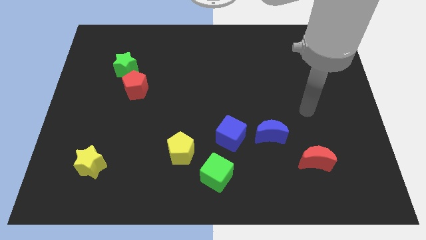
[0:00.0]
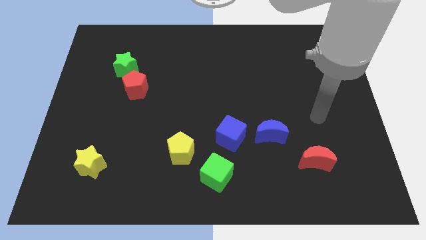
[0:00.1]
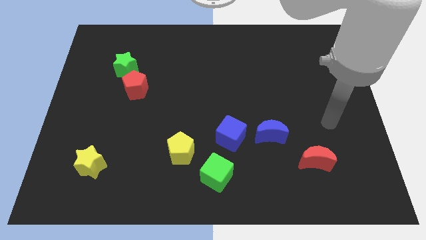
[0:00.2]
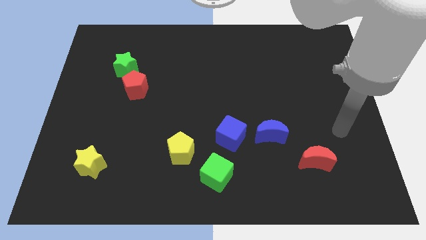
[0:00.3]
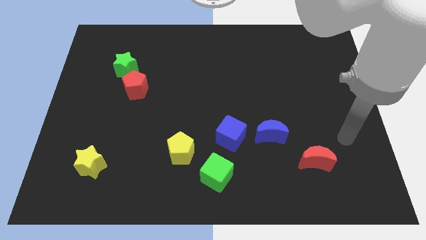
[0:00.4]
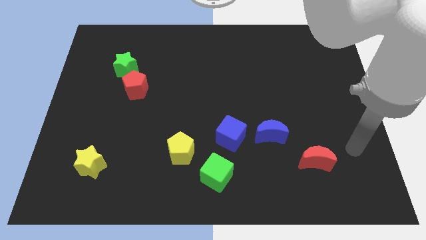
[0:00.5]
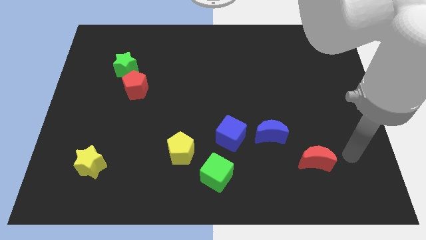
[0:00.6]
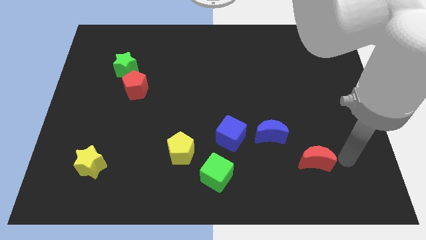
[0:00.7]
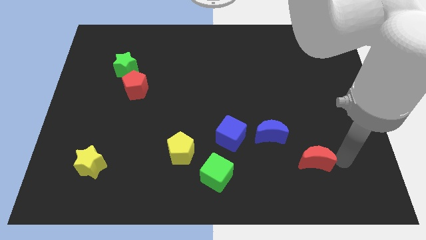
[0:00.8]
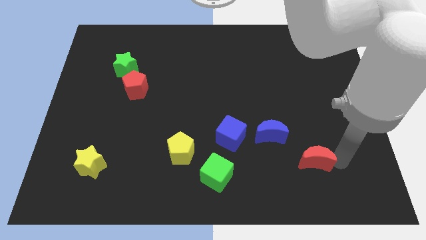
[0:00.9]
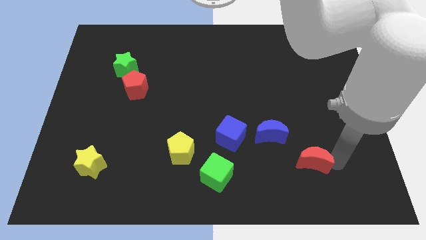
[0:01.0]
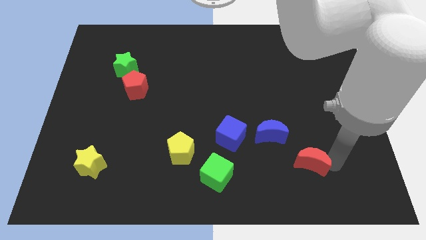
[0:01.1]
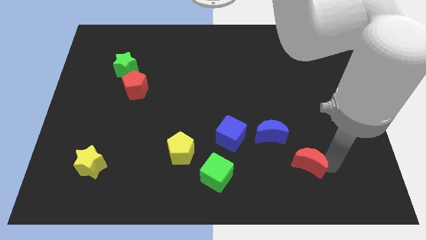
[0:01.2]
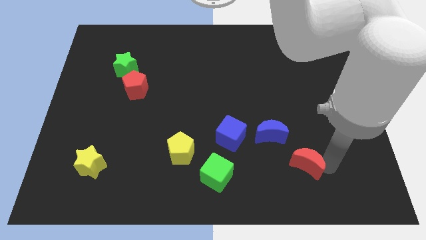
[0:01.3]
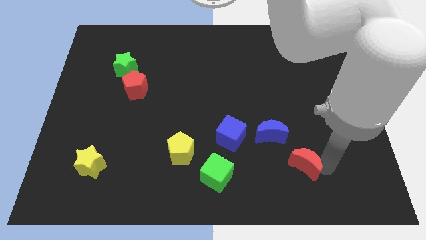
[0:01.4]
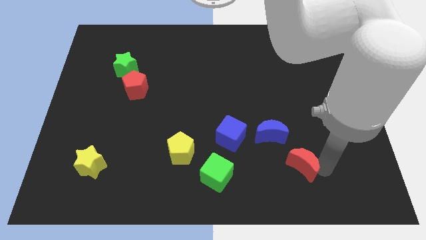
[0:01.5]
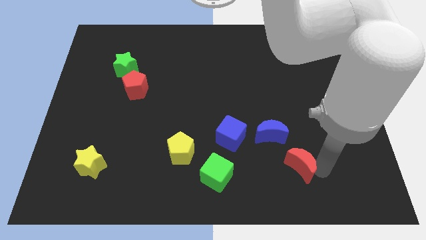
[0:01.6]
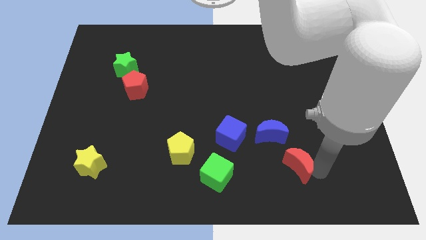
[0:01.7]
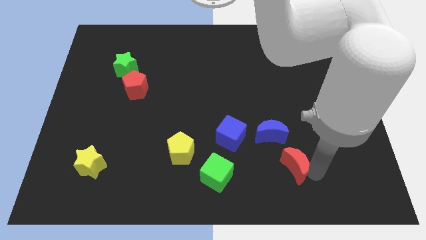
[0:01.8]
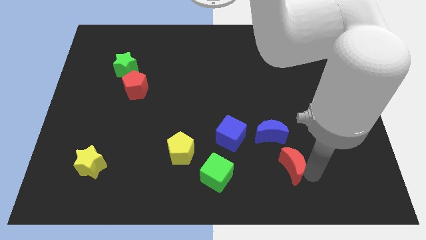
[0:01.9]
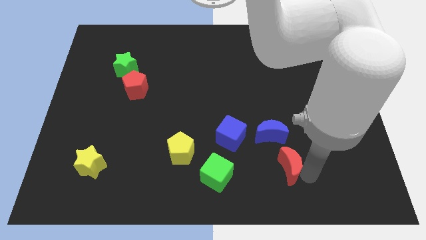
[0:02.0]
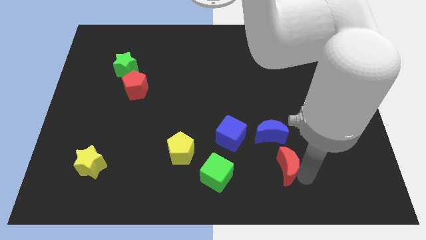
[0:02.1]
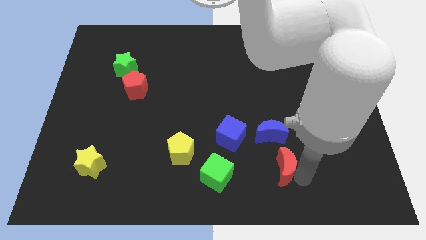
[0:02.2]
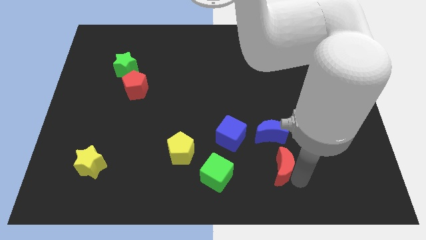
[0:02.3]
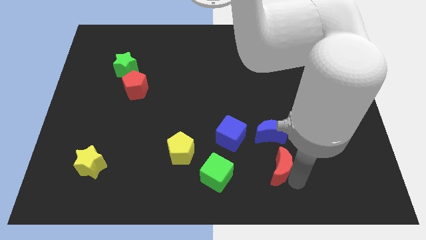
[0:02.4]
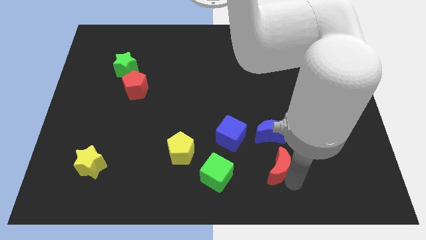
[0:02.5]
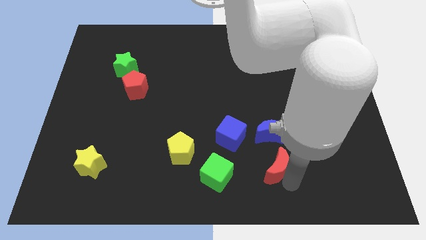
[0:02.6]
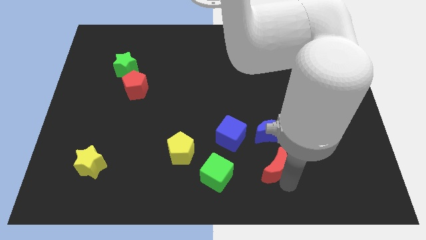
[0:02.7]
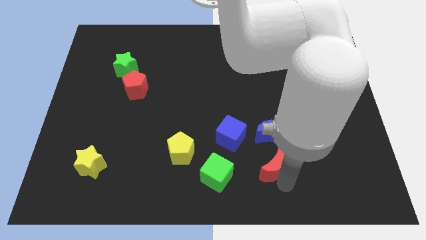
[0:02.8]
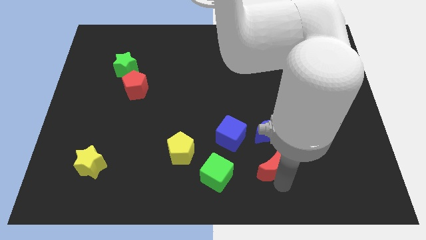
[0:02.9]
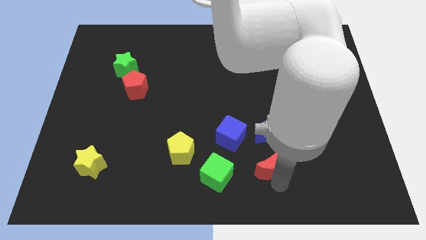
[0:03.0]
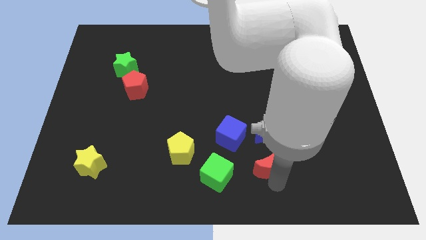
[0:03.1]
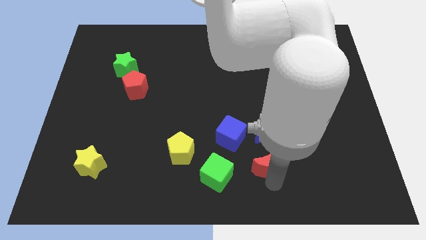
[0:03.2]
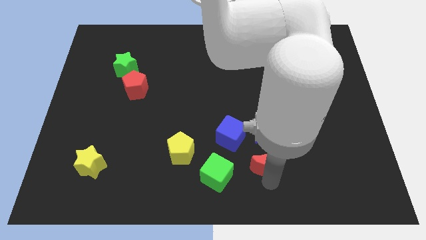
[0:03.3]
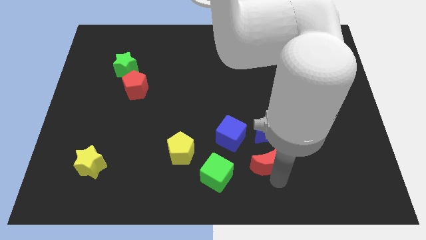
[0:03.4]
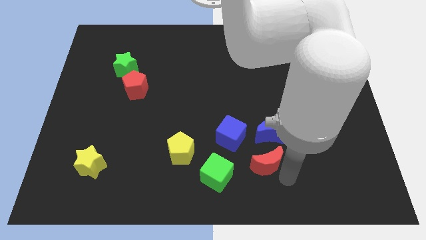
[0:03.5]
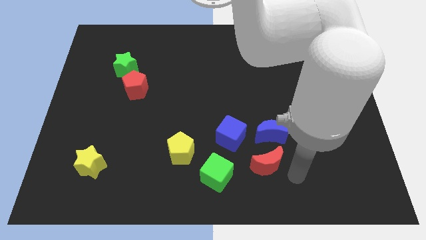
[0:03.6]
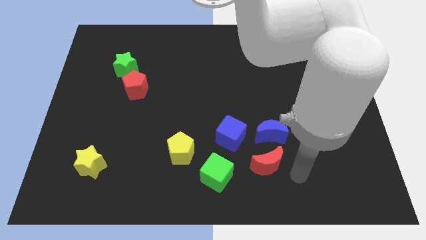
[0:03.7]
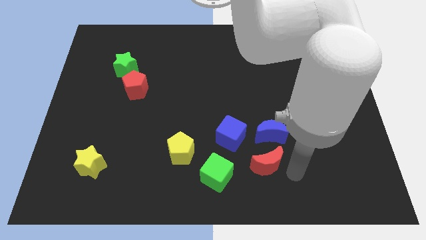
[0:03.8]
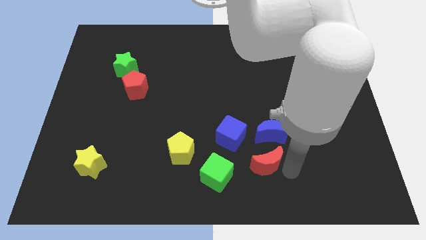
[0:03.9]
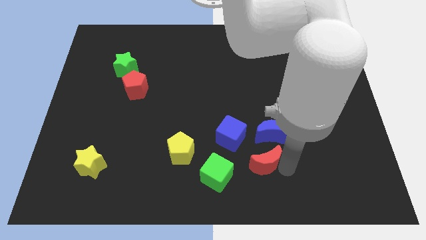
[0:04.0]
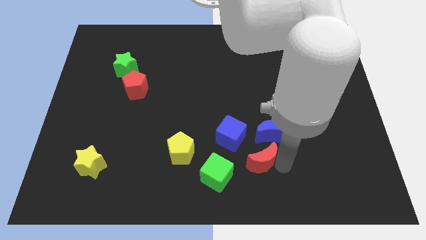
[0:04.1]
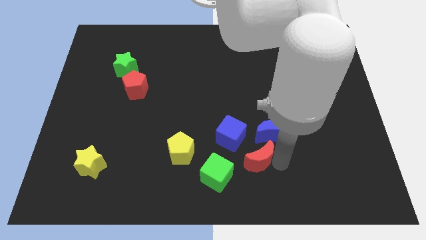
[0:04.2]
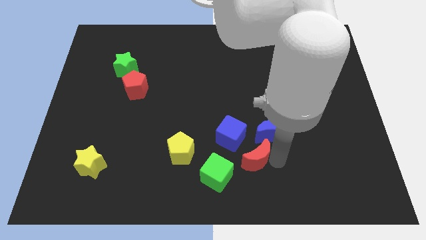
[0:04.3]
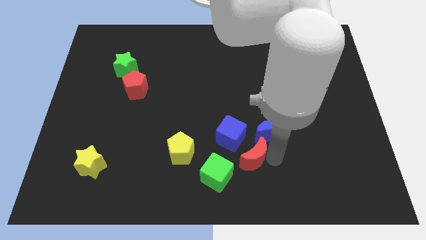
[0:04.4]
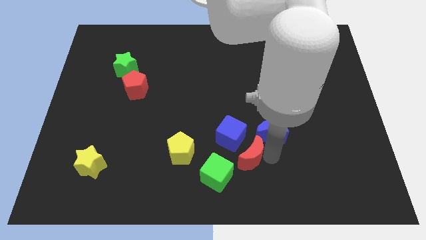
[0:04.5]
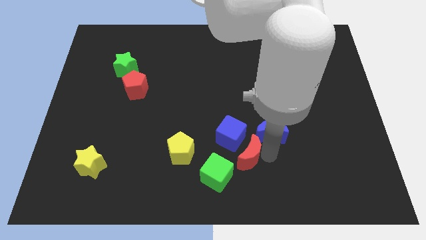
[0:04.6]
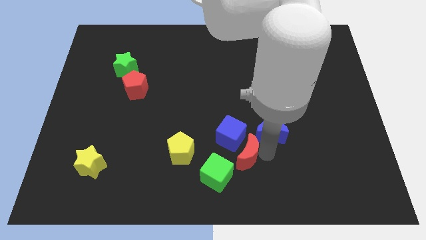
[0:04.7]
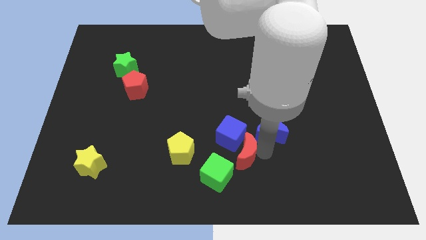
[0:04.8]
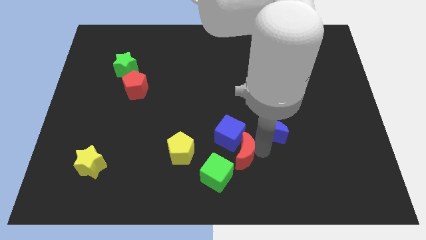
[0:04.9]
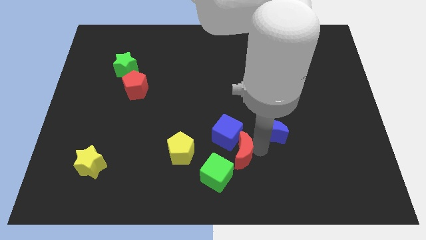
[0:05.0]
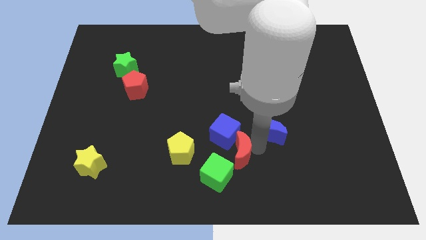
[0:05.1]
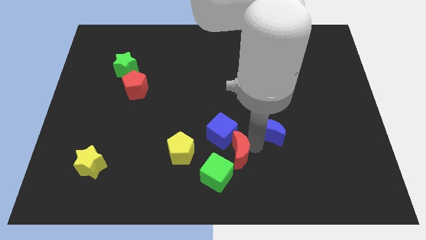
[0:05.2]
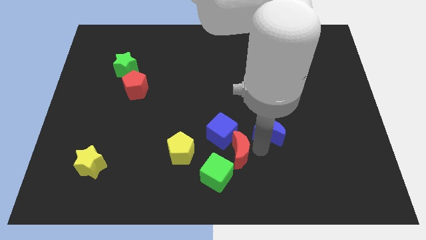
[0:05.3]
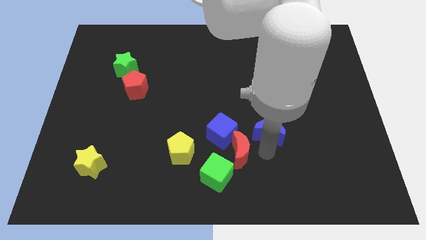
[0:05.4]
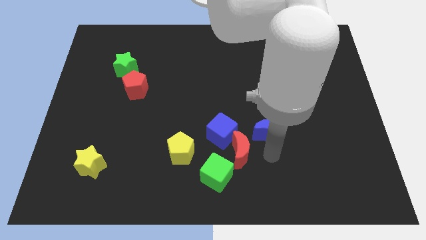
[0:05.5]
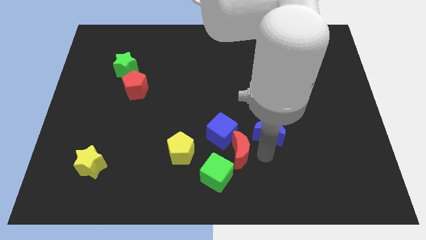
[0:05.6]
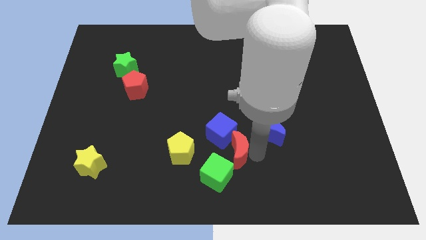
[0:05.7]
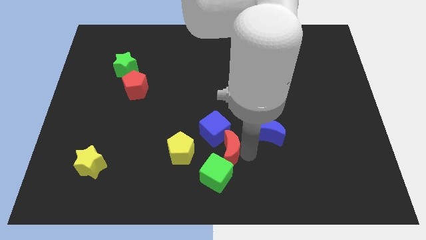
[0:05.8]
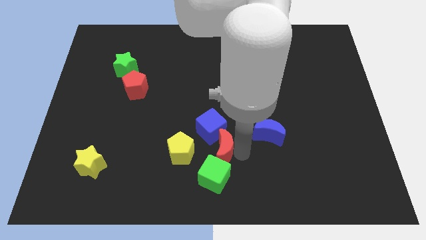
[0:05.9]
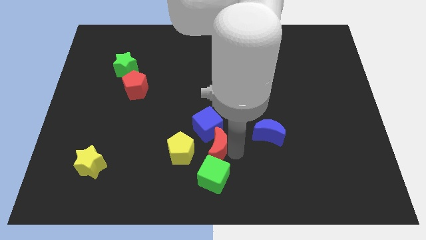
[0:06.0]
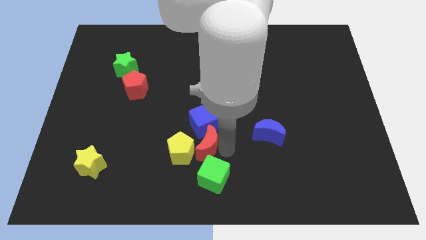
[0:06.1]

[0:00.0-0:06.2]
put the red moon towards the yellow pentagon

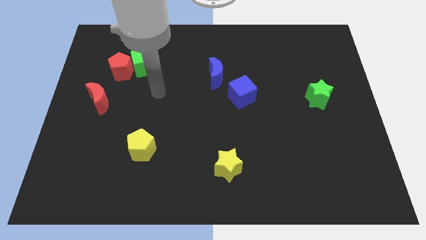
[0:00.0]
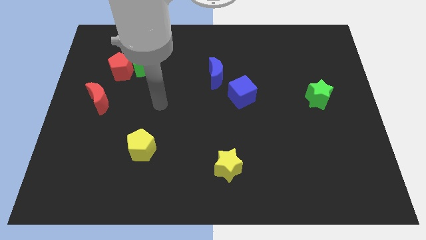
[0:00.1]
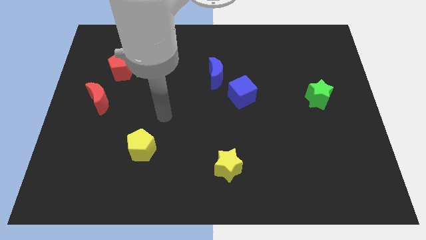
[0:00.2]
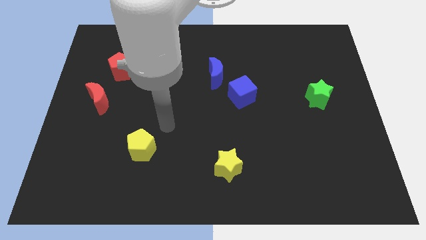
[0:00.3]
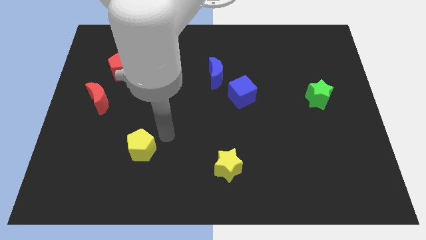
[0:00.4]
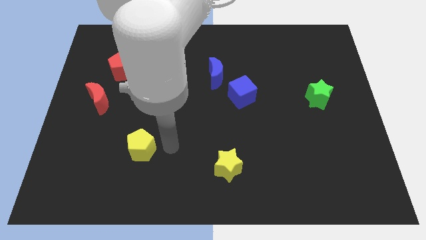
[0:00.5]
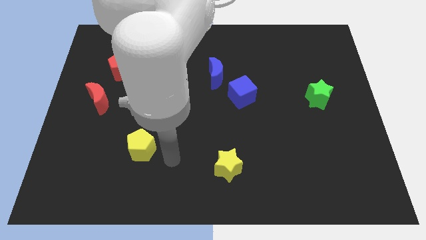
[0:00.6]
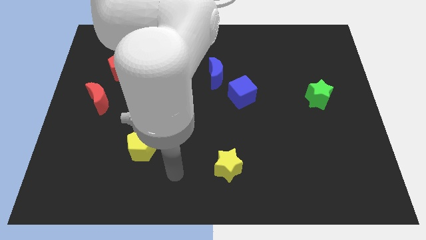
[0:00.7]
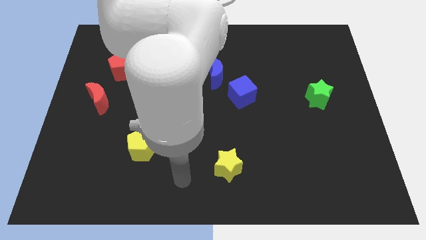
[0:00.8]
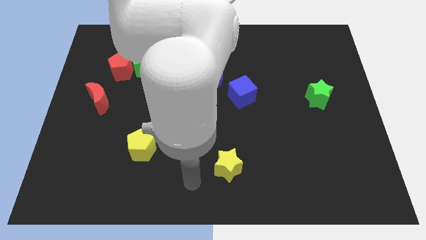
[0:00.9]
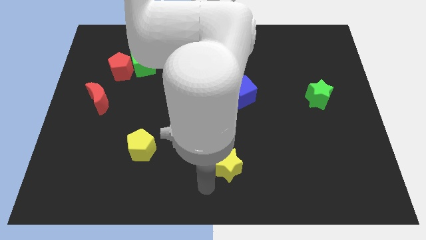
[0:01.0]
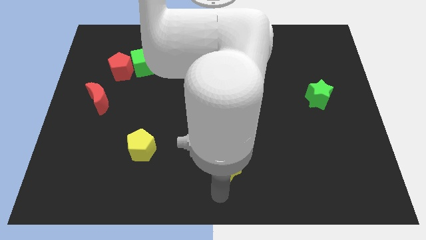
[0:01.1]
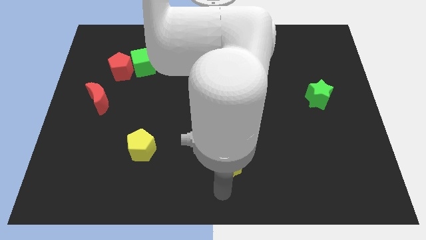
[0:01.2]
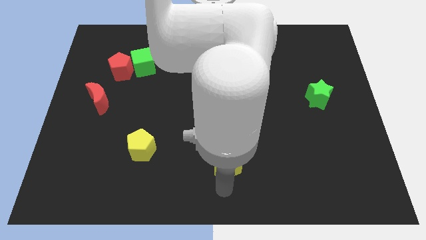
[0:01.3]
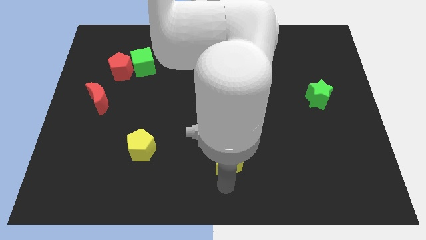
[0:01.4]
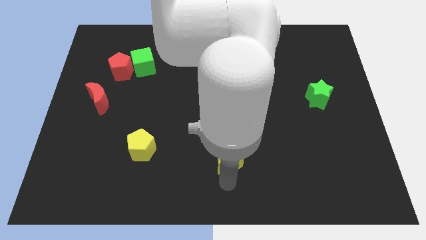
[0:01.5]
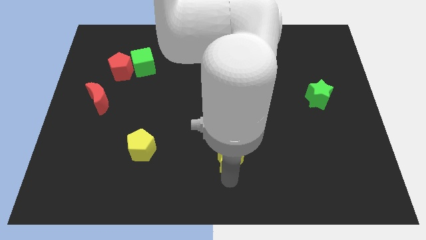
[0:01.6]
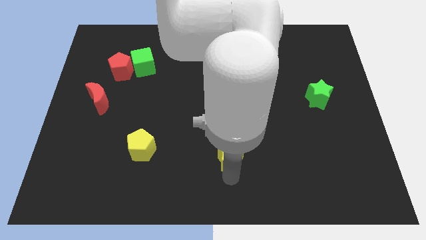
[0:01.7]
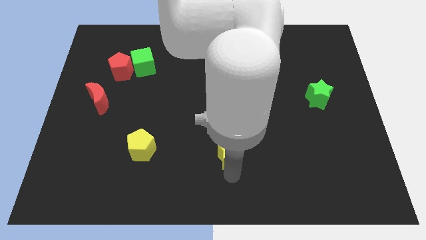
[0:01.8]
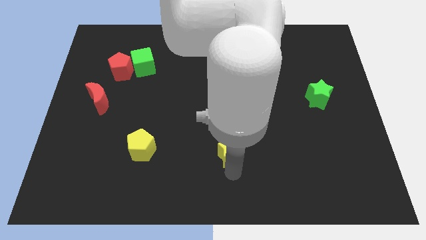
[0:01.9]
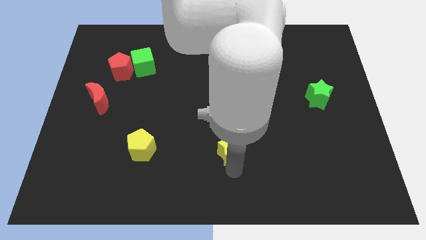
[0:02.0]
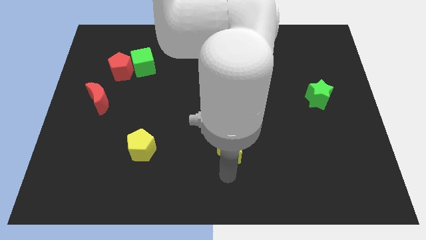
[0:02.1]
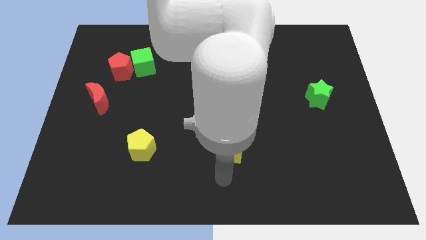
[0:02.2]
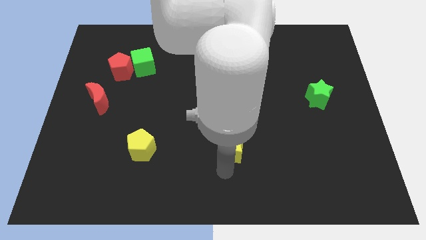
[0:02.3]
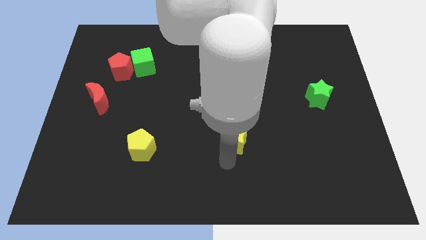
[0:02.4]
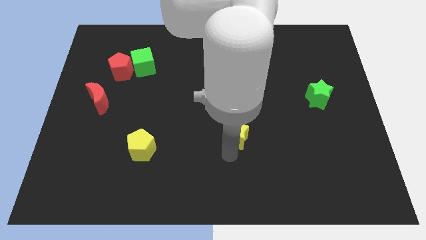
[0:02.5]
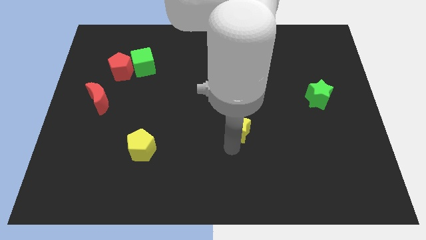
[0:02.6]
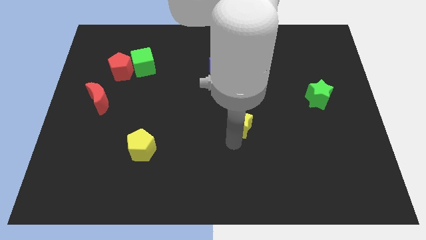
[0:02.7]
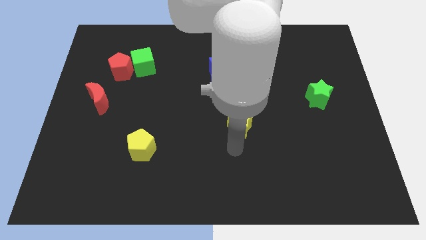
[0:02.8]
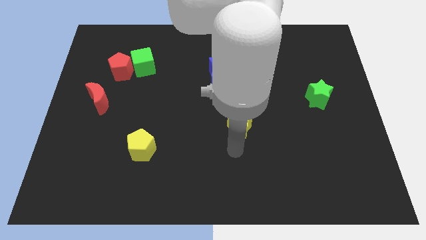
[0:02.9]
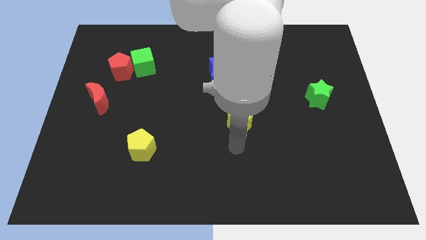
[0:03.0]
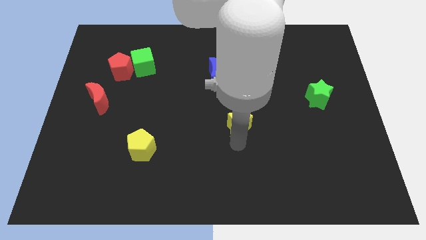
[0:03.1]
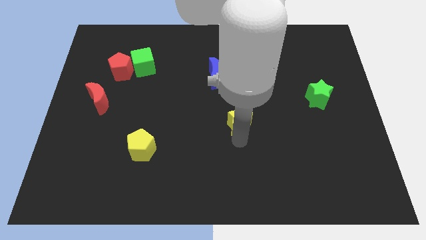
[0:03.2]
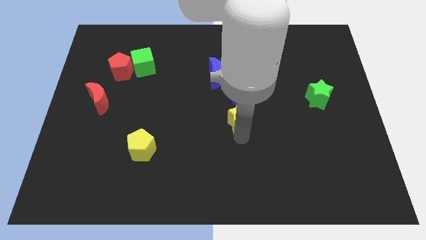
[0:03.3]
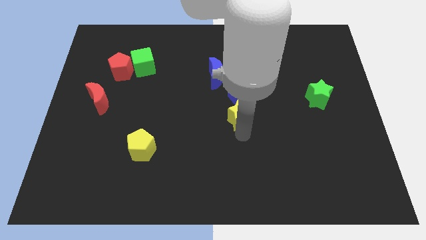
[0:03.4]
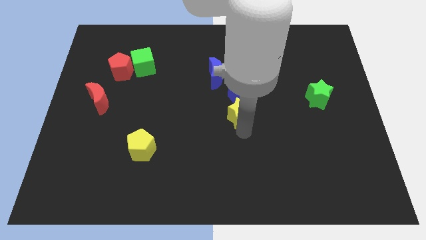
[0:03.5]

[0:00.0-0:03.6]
put the yellow star close to the blue cube
